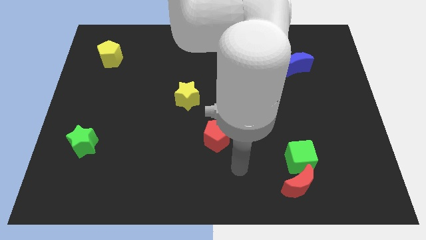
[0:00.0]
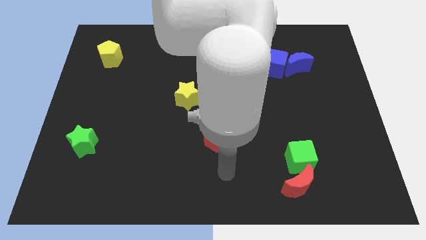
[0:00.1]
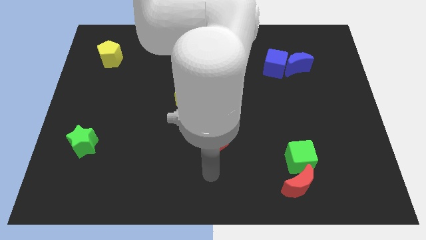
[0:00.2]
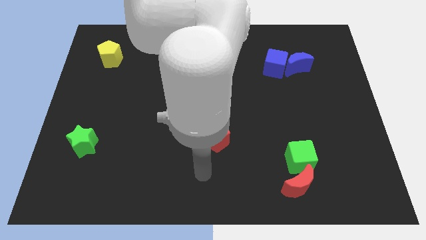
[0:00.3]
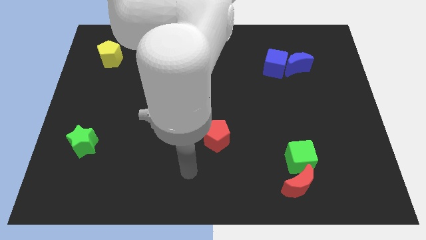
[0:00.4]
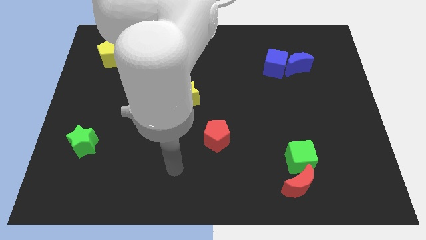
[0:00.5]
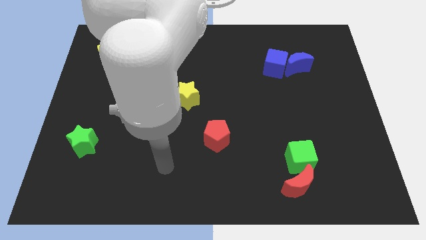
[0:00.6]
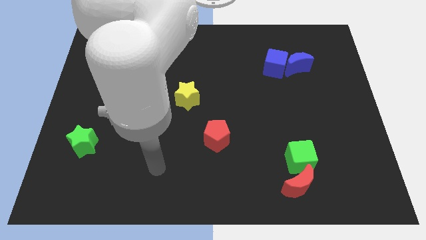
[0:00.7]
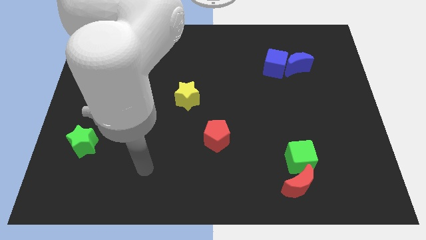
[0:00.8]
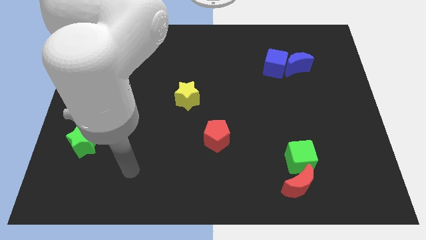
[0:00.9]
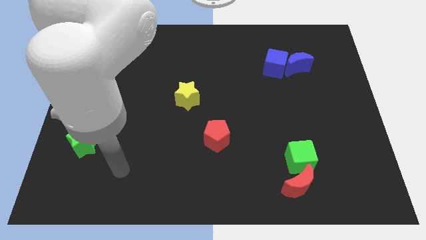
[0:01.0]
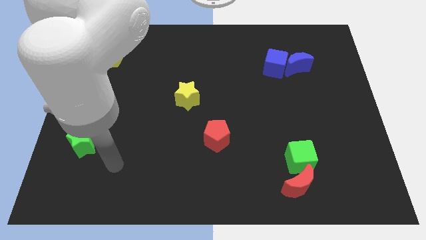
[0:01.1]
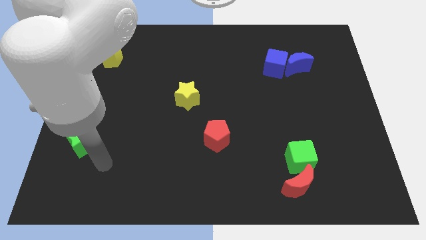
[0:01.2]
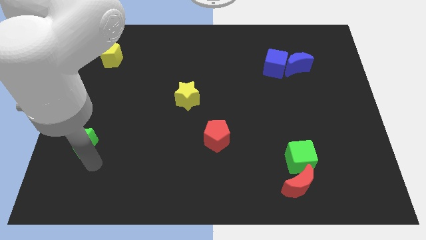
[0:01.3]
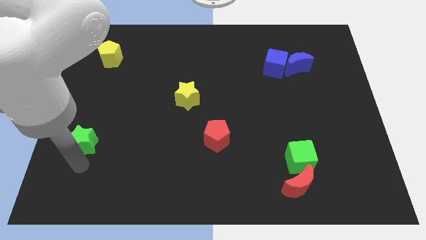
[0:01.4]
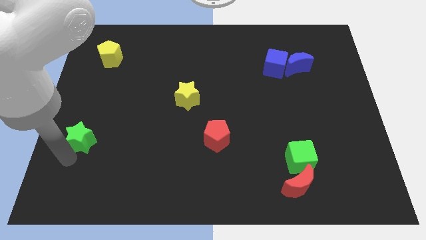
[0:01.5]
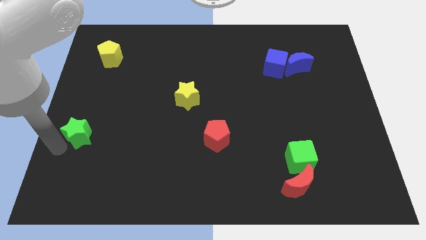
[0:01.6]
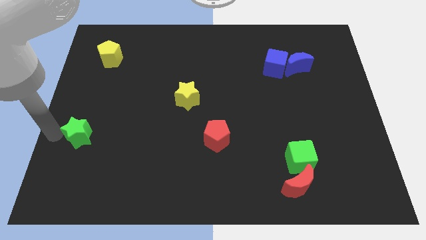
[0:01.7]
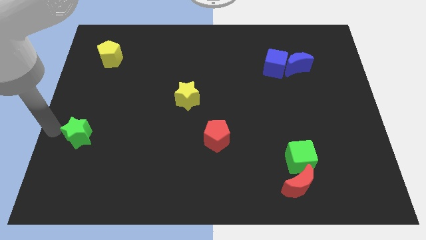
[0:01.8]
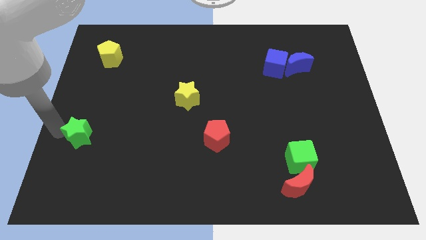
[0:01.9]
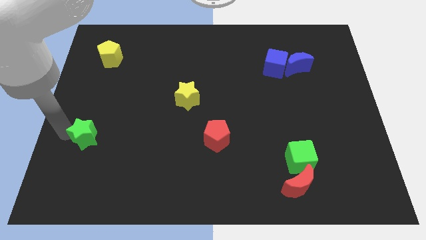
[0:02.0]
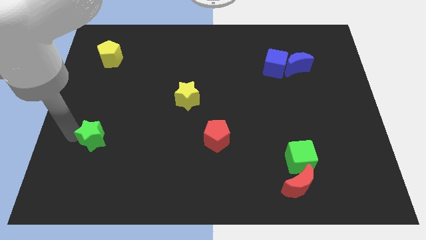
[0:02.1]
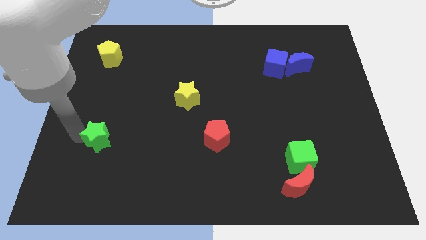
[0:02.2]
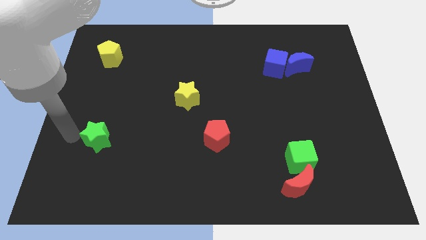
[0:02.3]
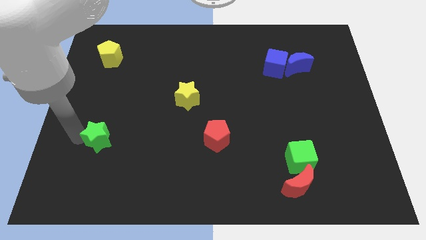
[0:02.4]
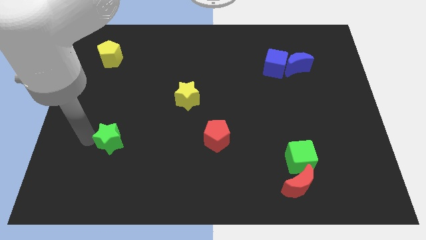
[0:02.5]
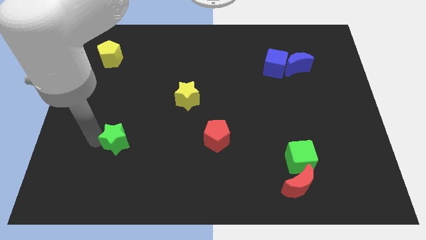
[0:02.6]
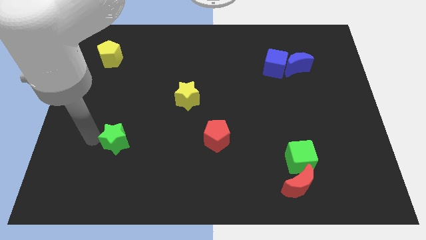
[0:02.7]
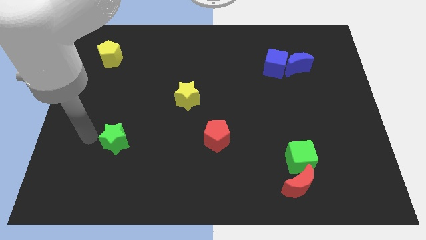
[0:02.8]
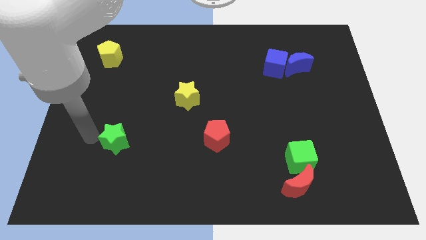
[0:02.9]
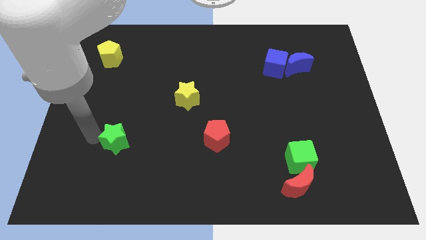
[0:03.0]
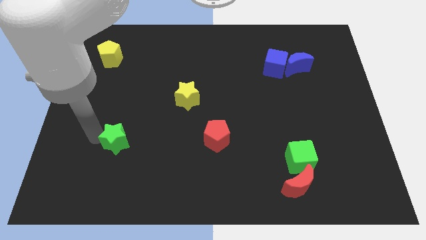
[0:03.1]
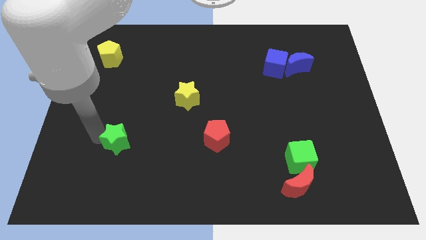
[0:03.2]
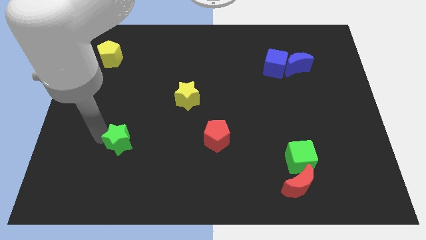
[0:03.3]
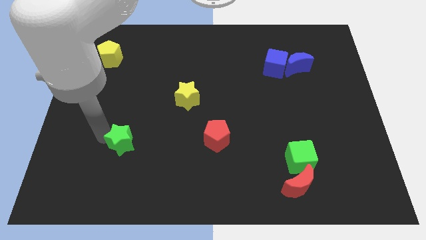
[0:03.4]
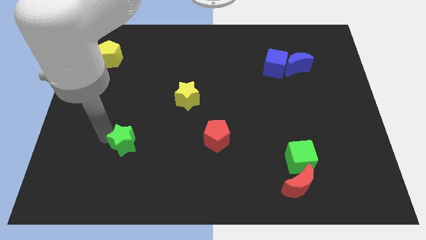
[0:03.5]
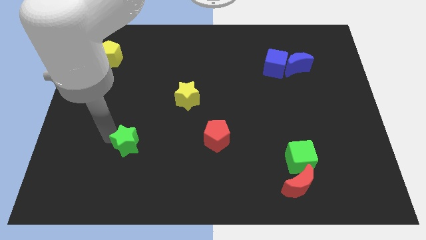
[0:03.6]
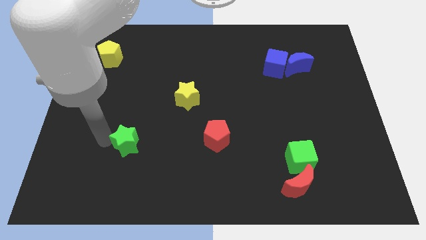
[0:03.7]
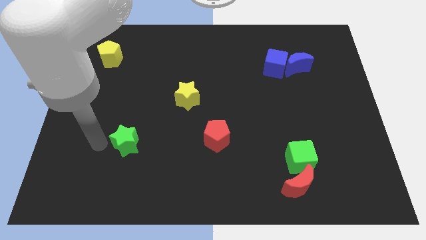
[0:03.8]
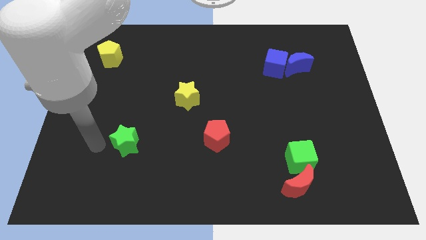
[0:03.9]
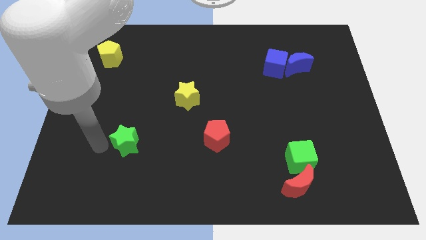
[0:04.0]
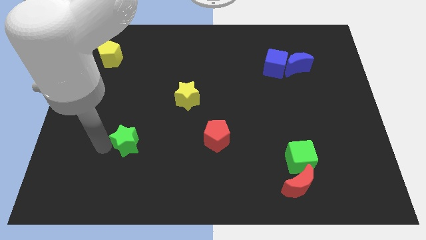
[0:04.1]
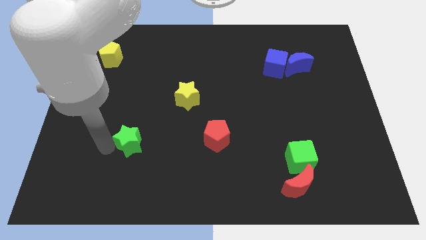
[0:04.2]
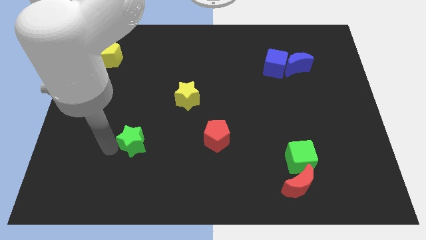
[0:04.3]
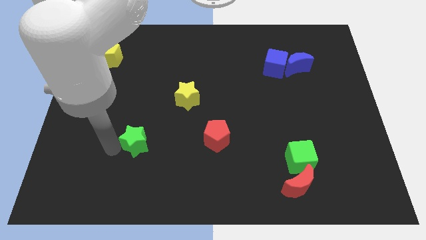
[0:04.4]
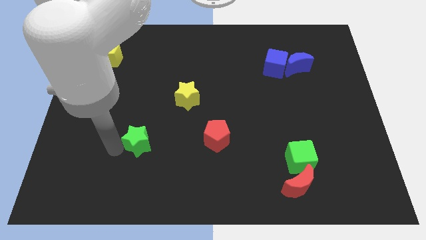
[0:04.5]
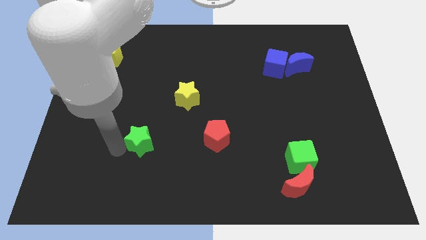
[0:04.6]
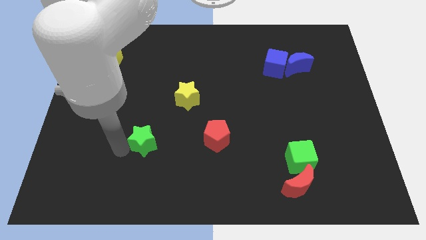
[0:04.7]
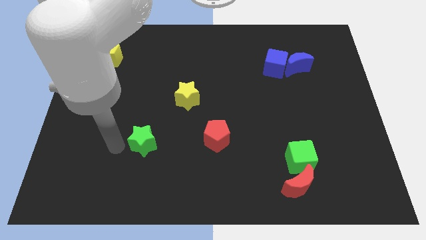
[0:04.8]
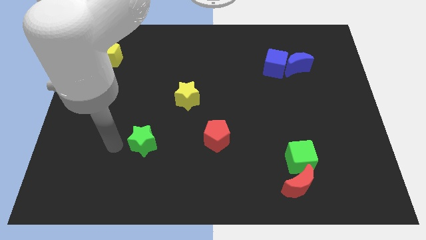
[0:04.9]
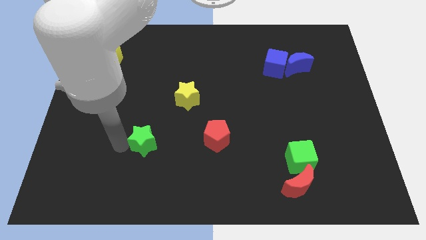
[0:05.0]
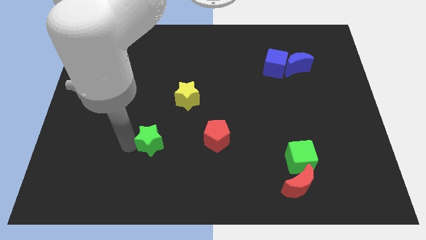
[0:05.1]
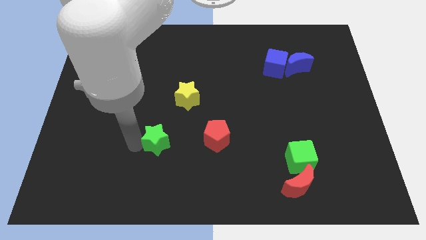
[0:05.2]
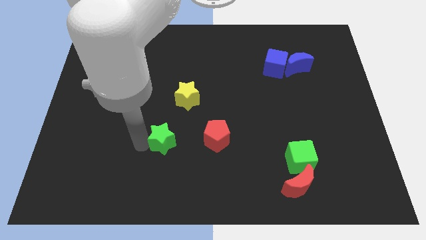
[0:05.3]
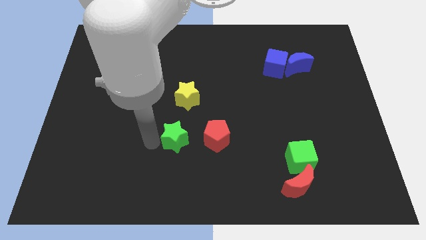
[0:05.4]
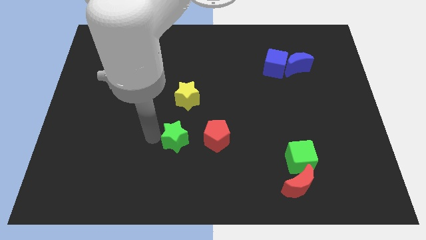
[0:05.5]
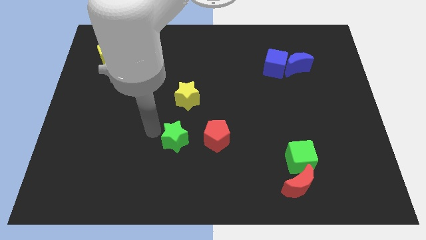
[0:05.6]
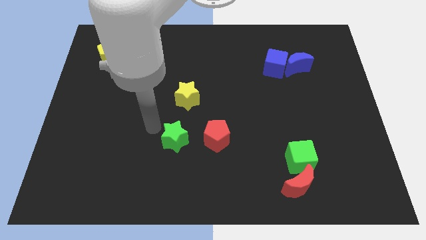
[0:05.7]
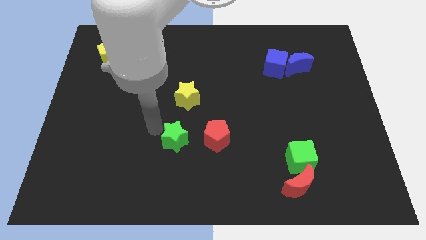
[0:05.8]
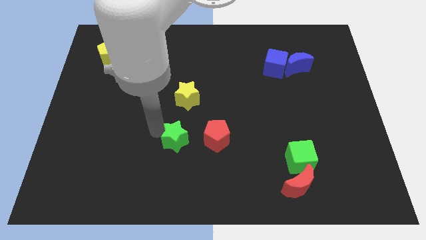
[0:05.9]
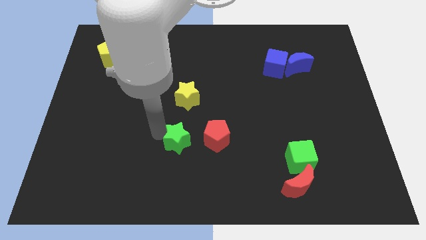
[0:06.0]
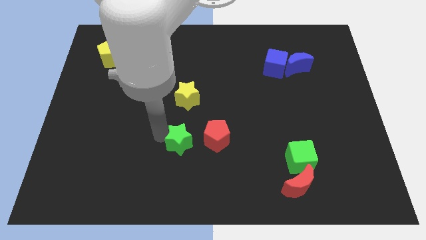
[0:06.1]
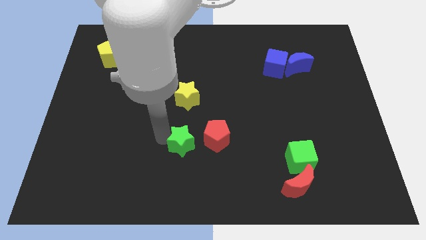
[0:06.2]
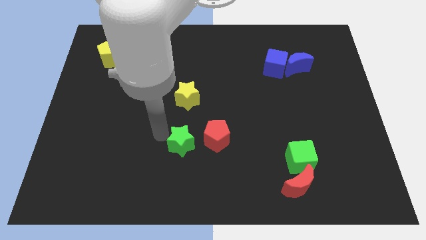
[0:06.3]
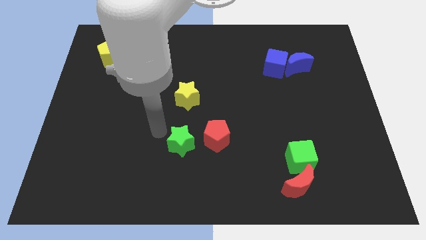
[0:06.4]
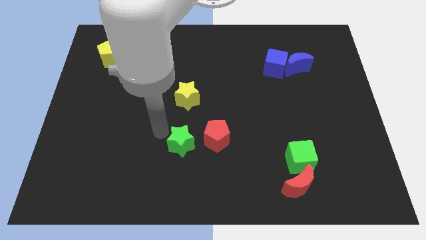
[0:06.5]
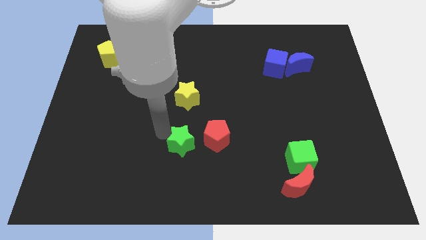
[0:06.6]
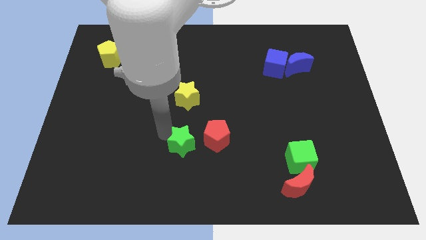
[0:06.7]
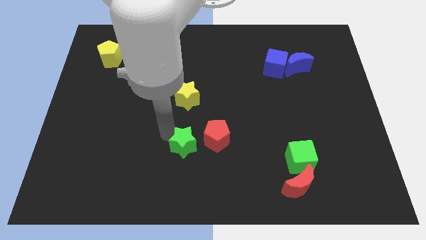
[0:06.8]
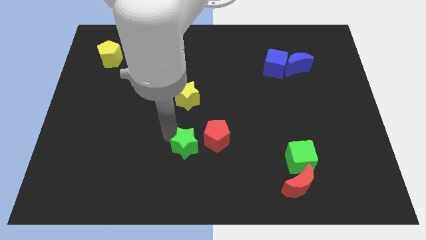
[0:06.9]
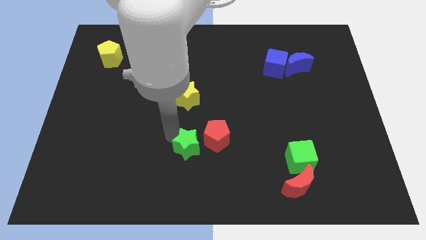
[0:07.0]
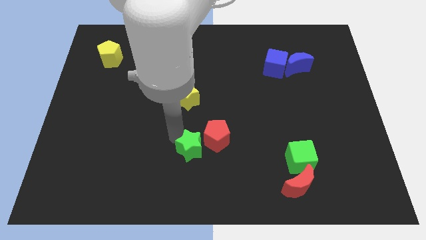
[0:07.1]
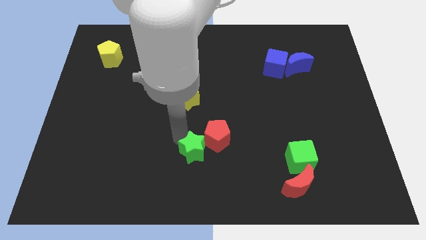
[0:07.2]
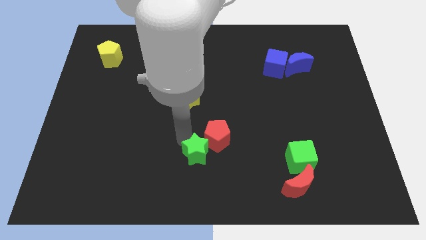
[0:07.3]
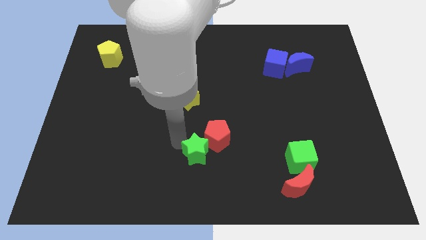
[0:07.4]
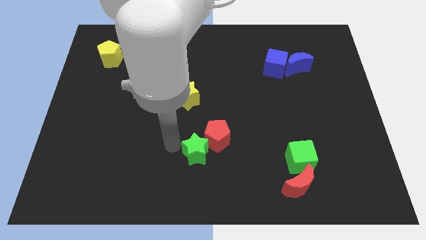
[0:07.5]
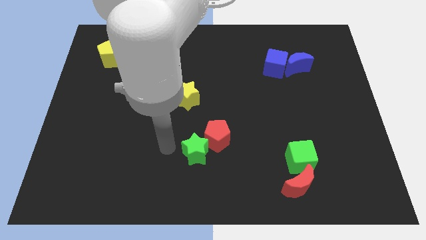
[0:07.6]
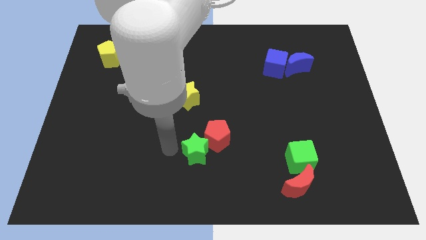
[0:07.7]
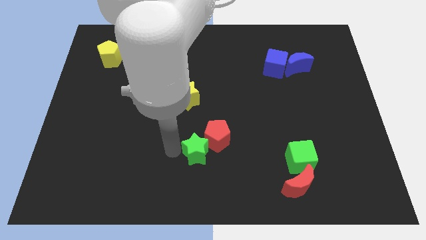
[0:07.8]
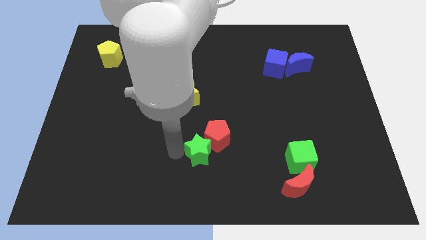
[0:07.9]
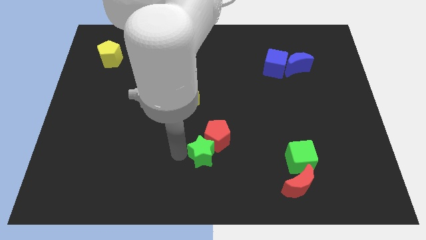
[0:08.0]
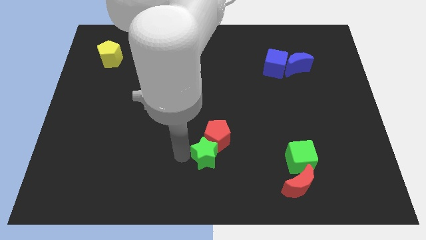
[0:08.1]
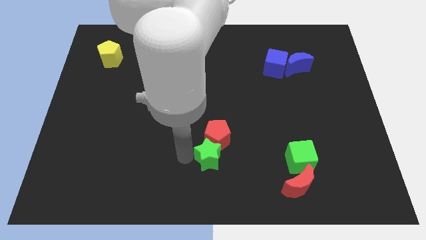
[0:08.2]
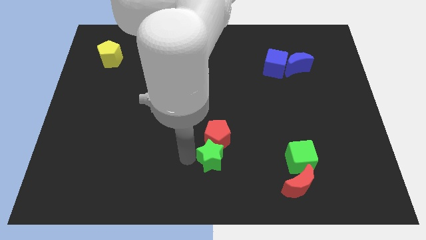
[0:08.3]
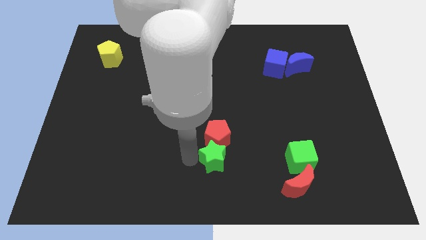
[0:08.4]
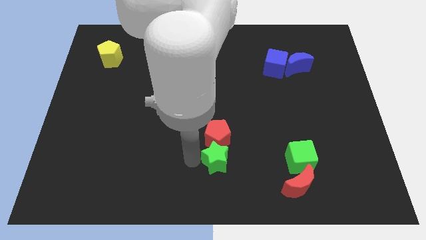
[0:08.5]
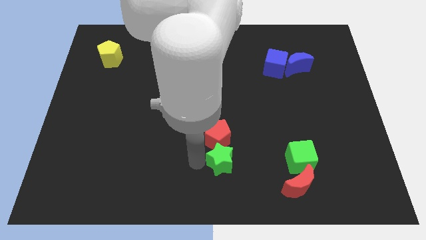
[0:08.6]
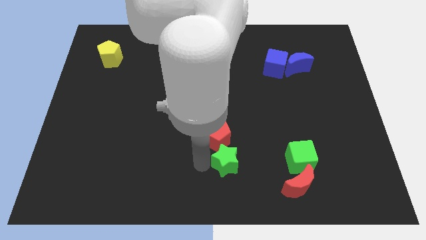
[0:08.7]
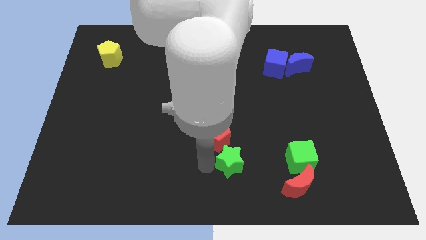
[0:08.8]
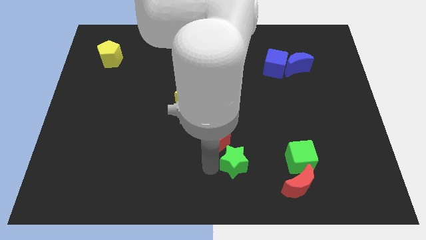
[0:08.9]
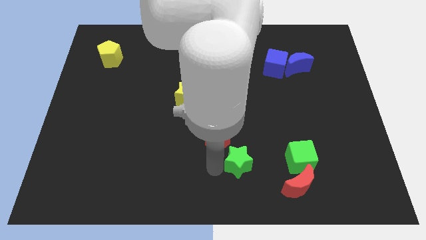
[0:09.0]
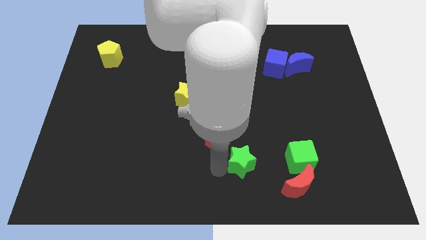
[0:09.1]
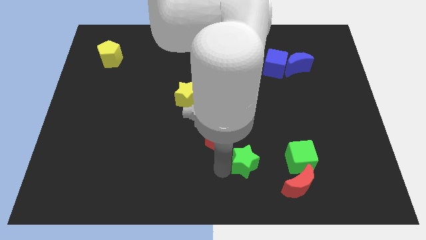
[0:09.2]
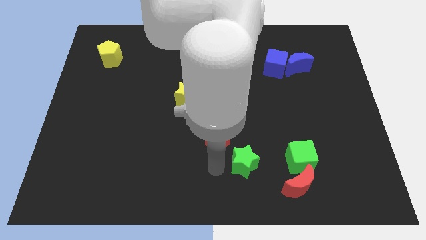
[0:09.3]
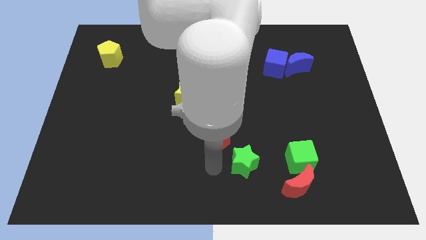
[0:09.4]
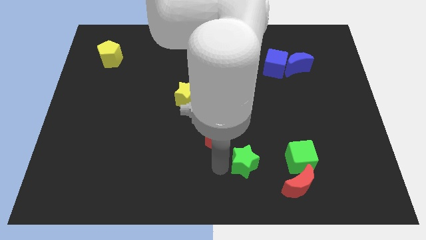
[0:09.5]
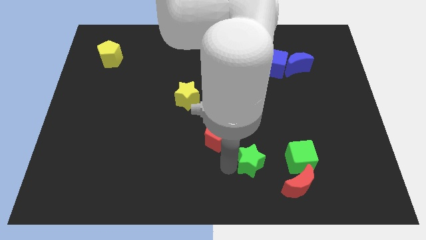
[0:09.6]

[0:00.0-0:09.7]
push the green star to the top left of the red moon
